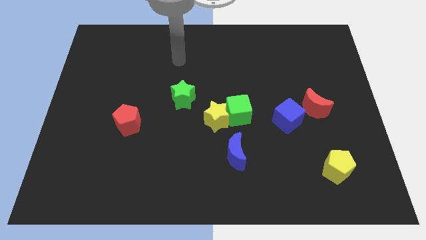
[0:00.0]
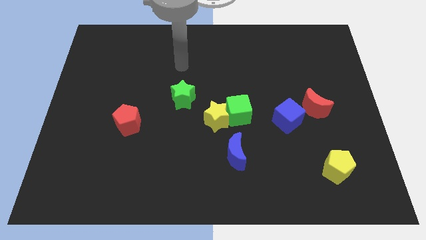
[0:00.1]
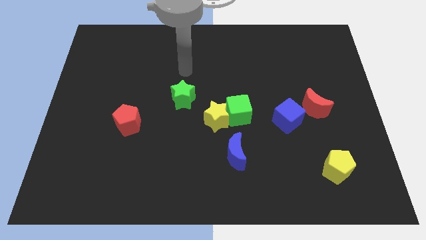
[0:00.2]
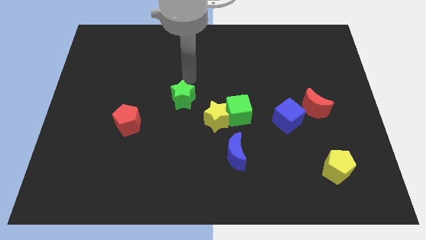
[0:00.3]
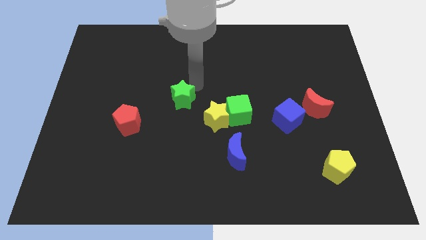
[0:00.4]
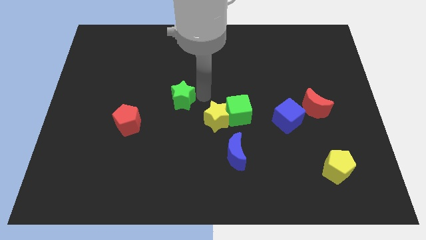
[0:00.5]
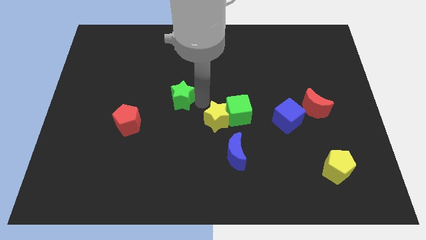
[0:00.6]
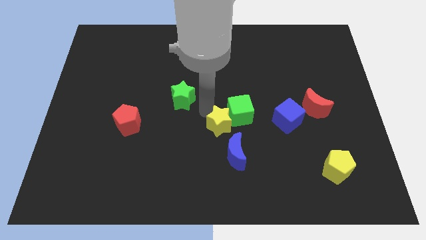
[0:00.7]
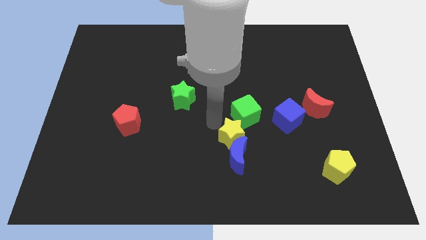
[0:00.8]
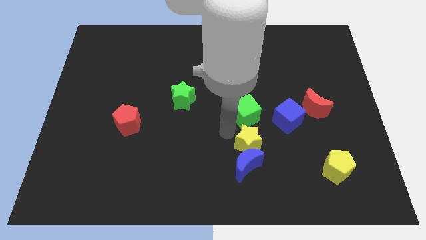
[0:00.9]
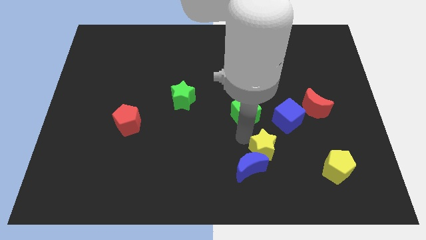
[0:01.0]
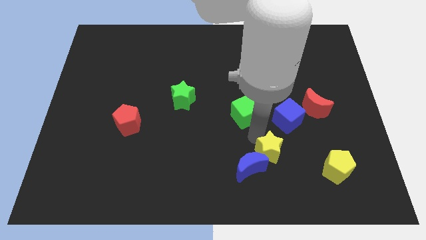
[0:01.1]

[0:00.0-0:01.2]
separate the green cube from the yellow star

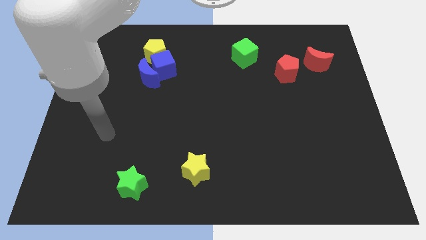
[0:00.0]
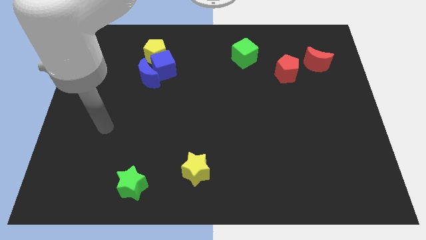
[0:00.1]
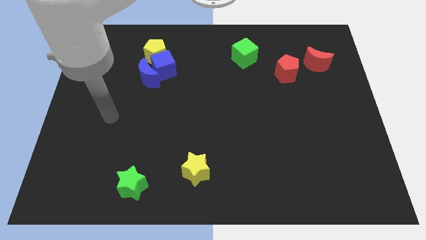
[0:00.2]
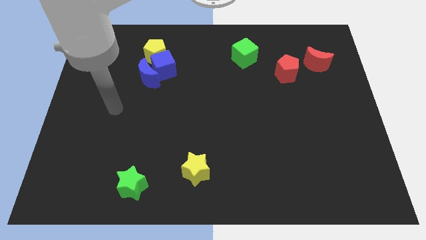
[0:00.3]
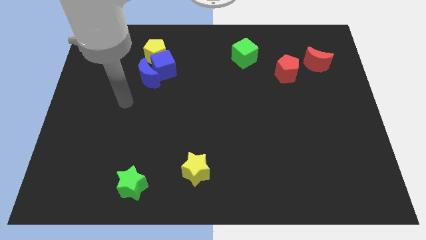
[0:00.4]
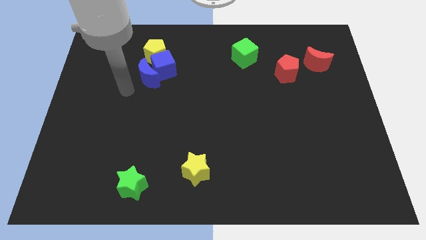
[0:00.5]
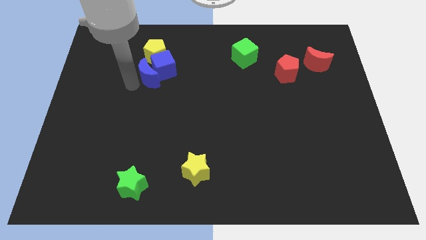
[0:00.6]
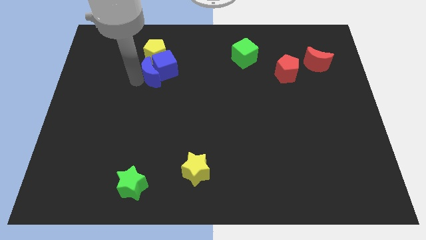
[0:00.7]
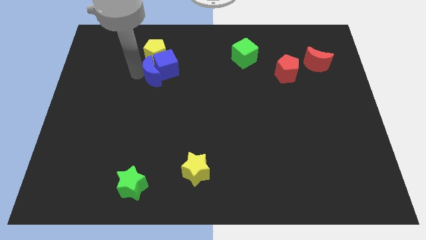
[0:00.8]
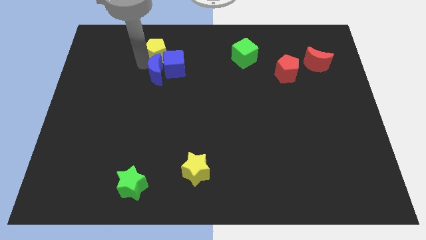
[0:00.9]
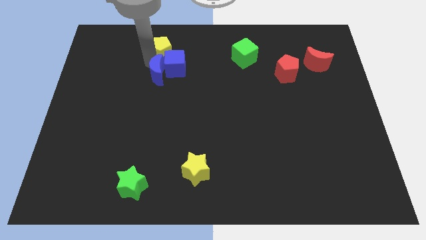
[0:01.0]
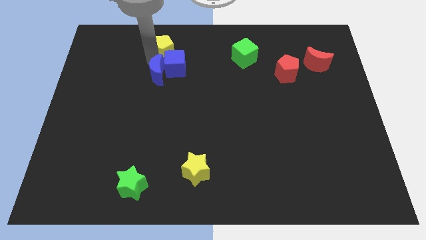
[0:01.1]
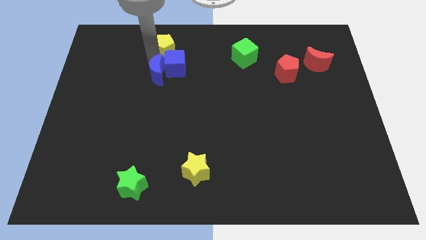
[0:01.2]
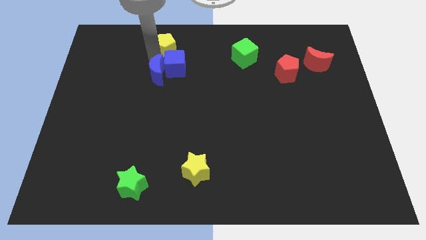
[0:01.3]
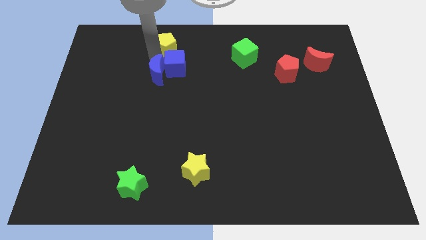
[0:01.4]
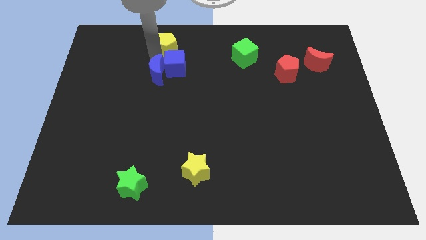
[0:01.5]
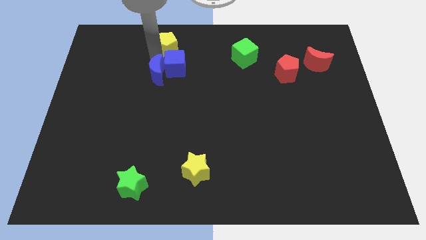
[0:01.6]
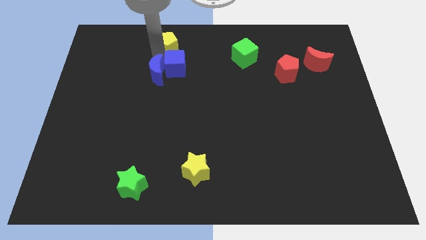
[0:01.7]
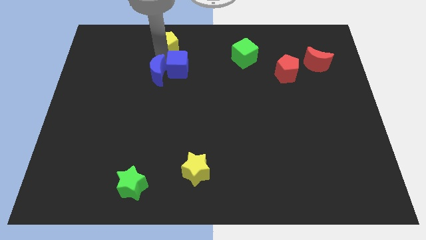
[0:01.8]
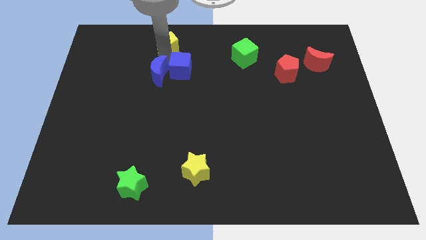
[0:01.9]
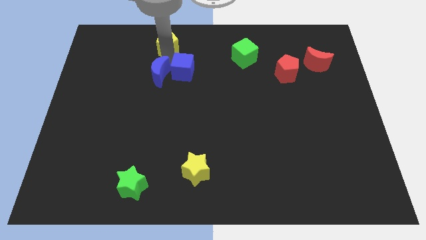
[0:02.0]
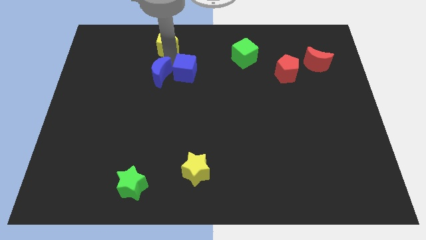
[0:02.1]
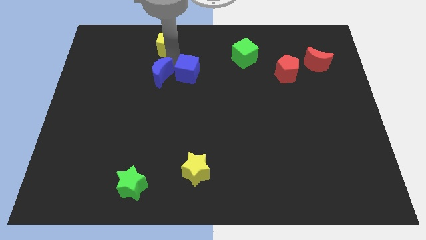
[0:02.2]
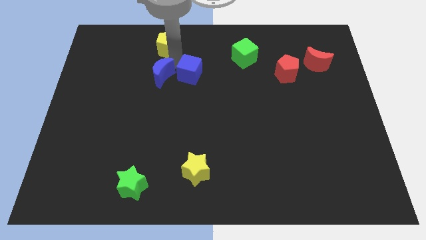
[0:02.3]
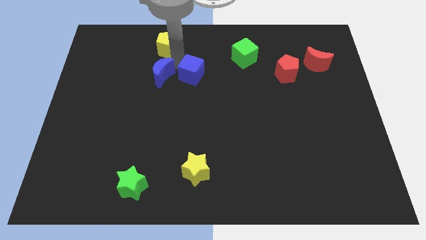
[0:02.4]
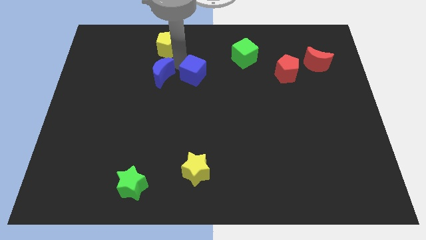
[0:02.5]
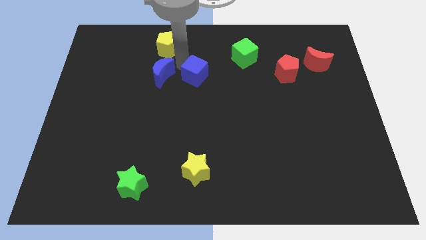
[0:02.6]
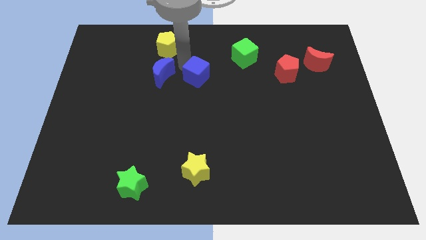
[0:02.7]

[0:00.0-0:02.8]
separate the blue cube from the blue moon and yellow pentagon

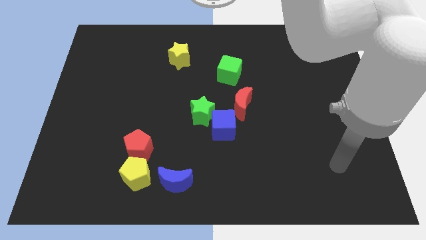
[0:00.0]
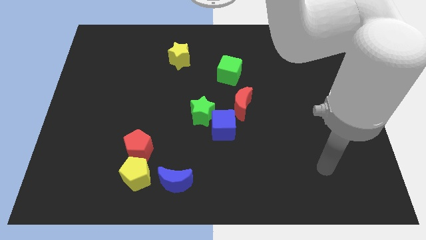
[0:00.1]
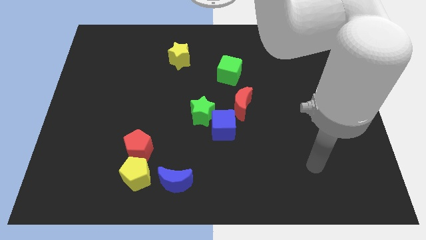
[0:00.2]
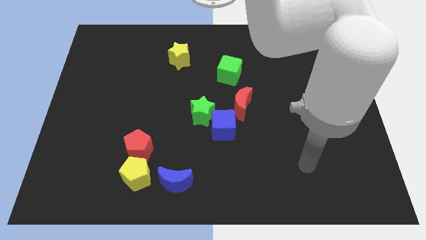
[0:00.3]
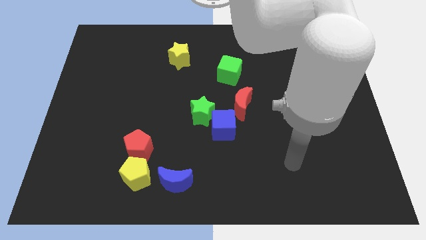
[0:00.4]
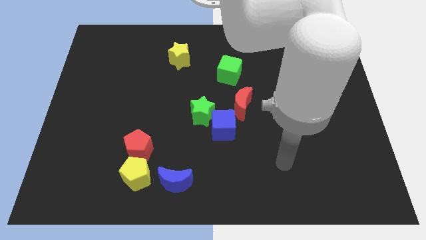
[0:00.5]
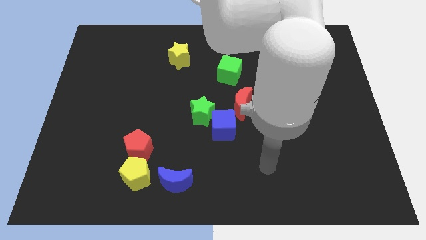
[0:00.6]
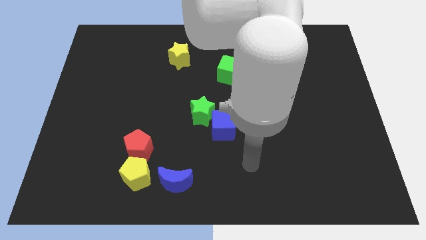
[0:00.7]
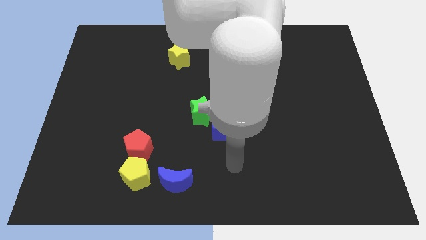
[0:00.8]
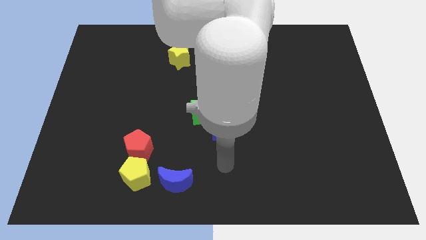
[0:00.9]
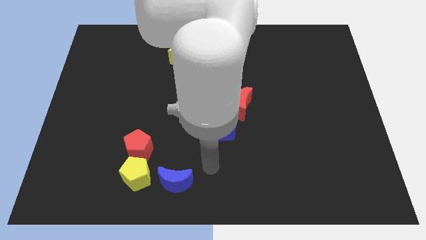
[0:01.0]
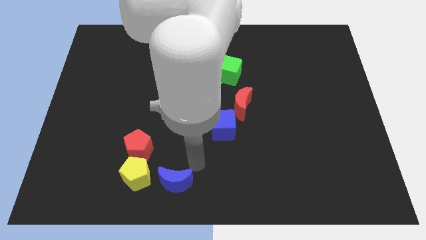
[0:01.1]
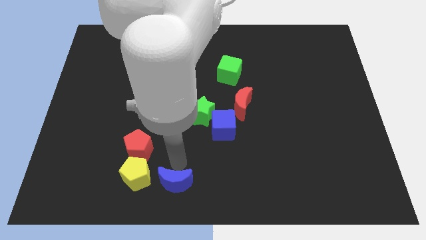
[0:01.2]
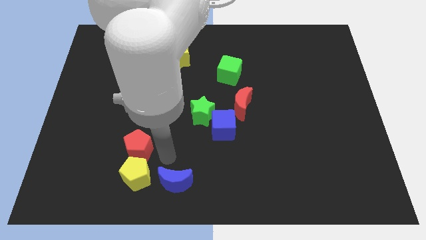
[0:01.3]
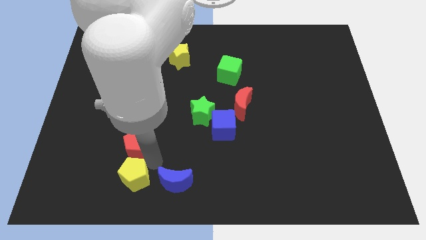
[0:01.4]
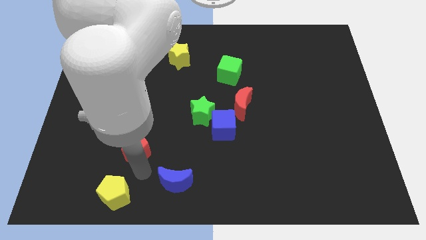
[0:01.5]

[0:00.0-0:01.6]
move the red pentagon away from the yellow pentagon

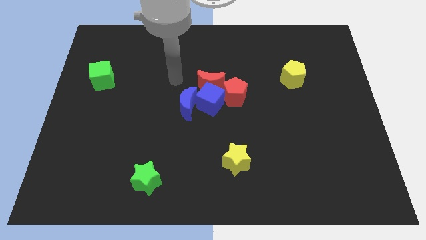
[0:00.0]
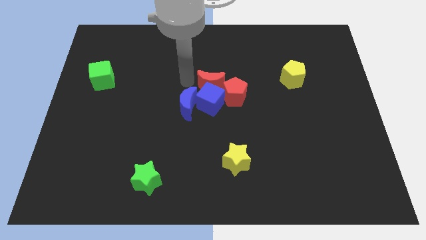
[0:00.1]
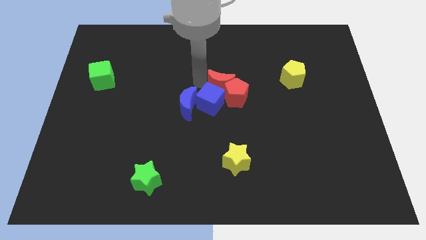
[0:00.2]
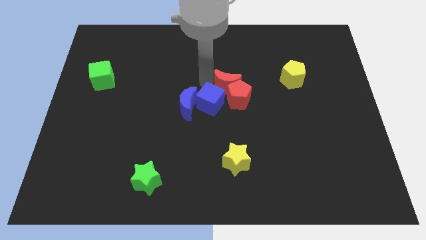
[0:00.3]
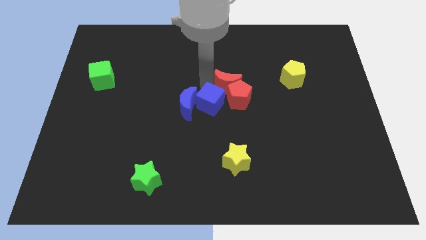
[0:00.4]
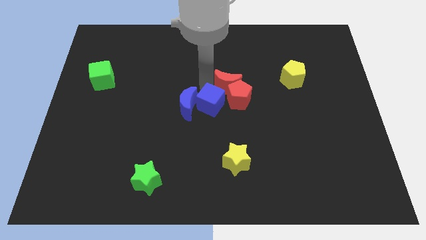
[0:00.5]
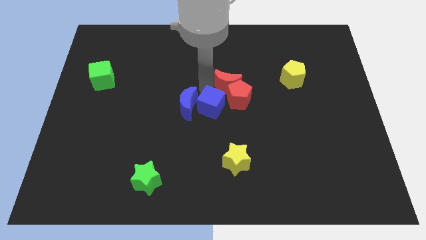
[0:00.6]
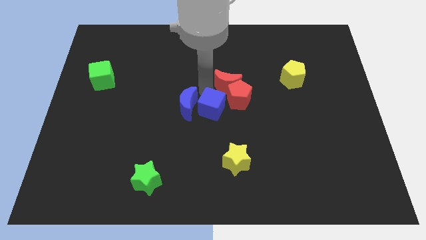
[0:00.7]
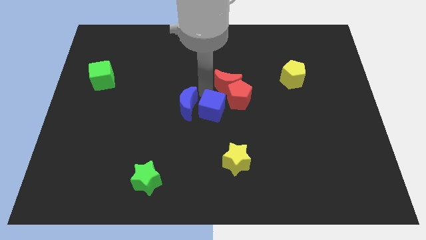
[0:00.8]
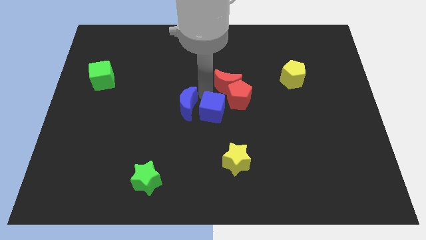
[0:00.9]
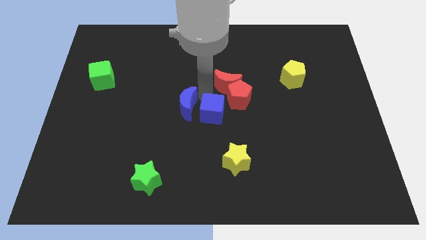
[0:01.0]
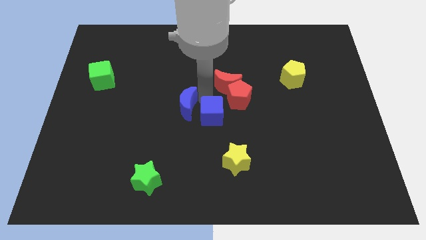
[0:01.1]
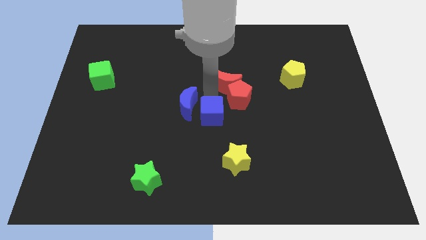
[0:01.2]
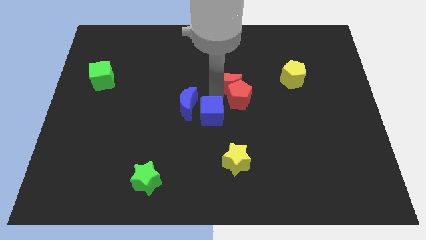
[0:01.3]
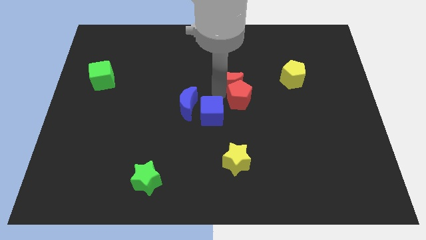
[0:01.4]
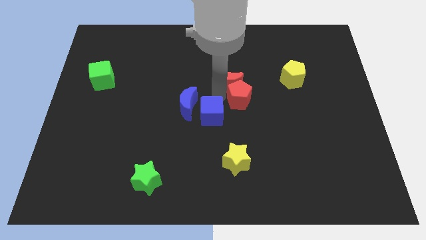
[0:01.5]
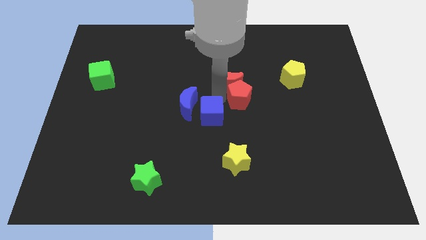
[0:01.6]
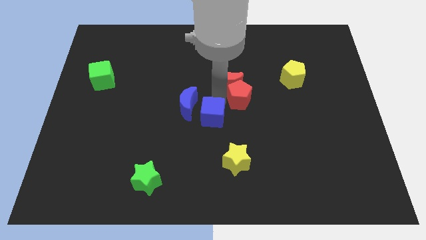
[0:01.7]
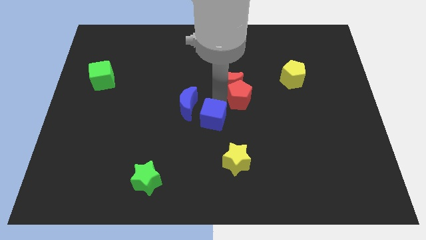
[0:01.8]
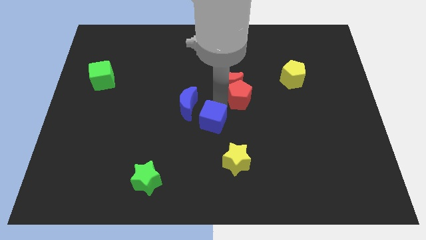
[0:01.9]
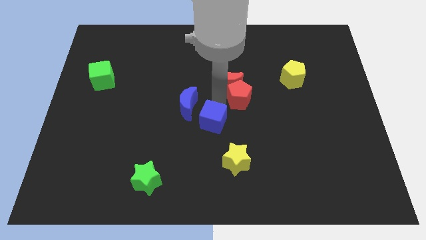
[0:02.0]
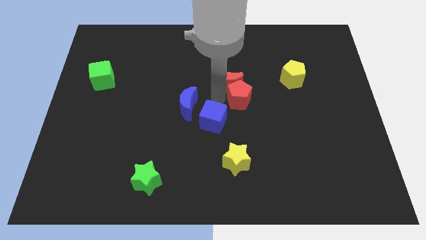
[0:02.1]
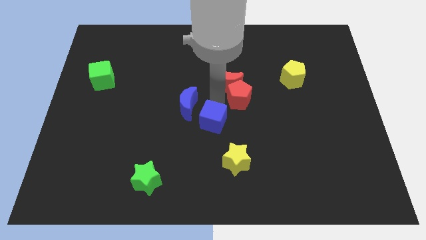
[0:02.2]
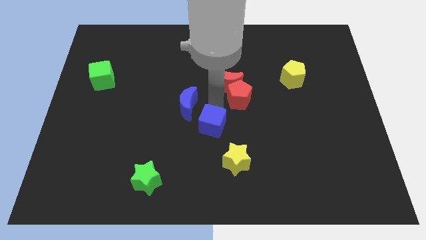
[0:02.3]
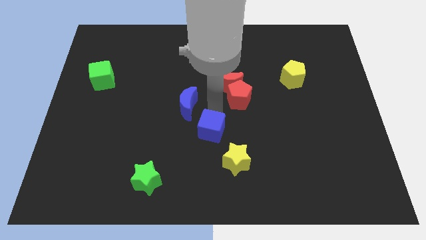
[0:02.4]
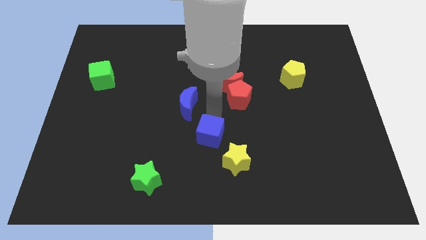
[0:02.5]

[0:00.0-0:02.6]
pull the blue cube apart from the clump

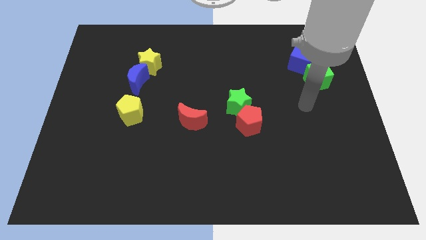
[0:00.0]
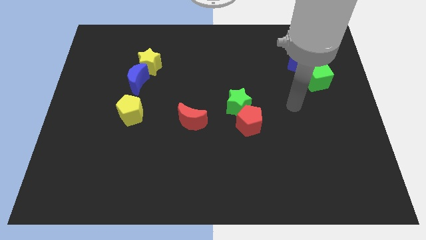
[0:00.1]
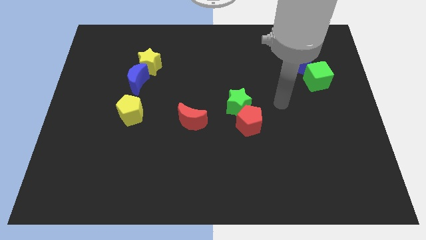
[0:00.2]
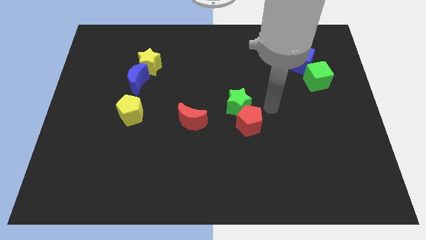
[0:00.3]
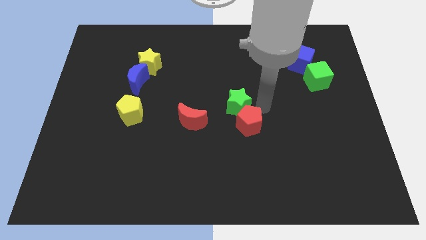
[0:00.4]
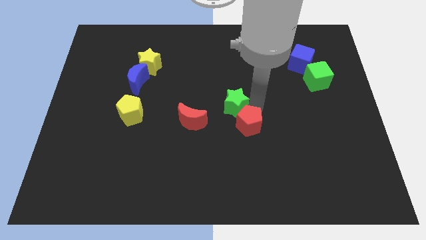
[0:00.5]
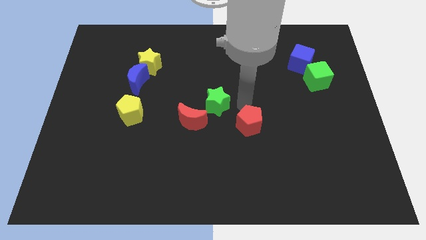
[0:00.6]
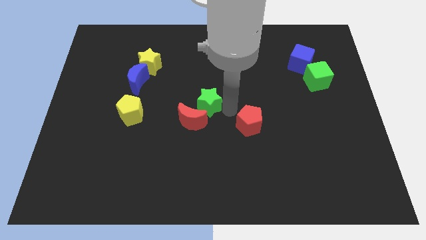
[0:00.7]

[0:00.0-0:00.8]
separate the red pentagon from the green star

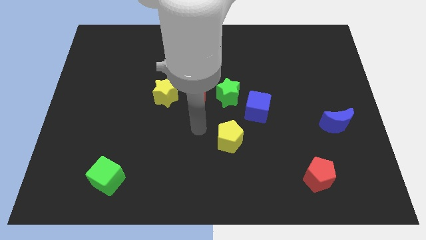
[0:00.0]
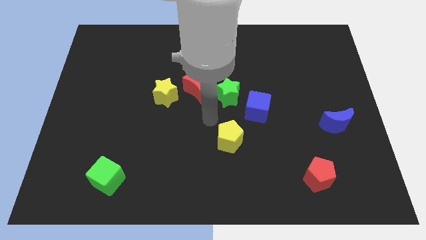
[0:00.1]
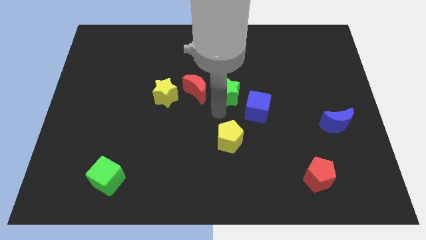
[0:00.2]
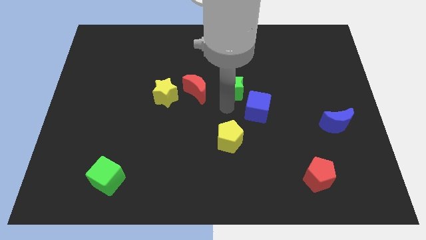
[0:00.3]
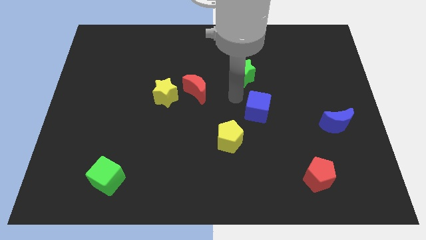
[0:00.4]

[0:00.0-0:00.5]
separate the blue cube from the green star
